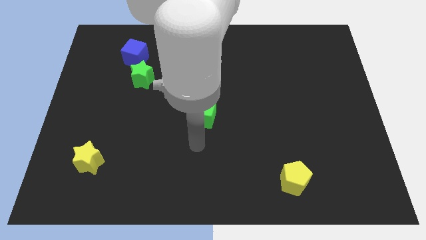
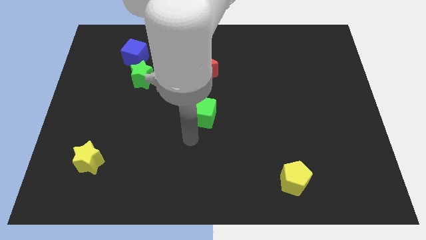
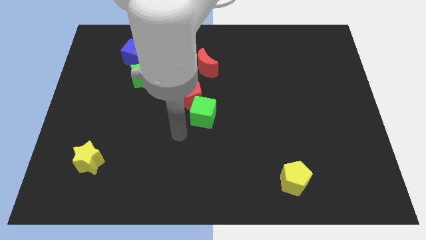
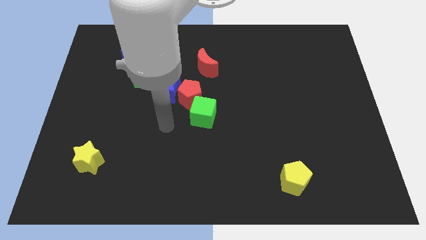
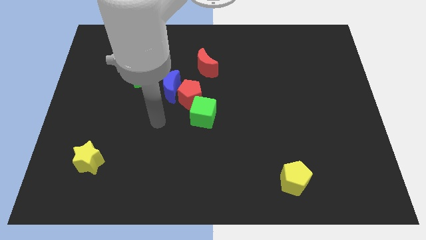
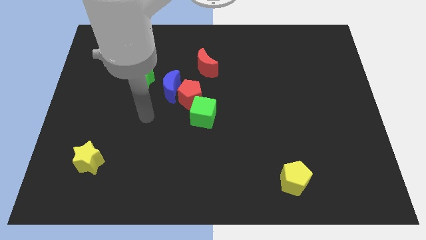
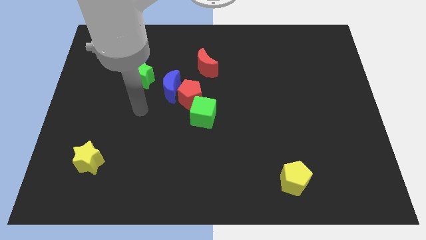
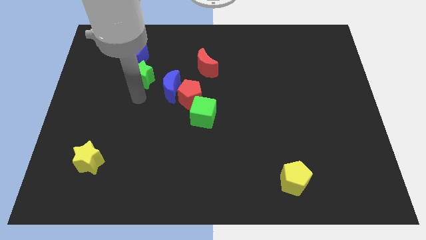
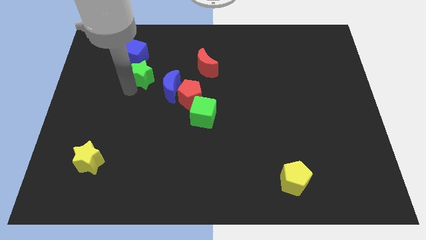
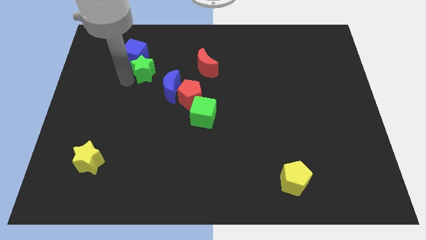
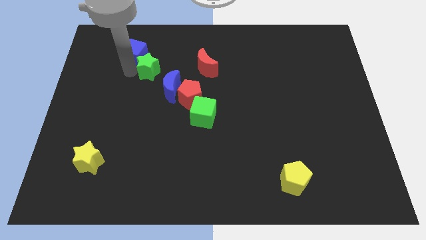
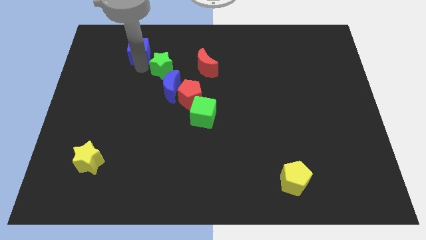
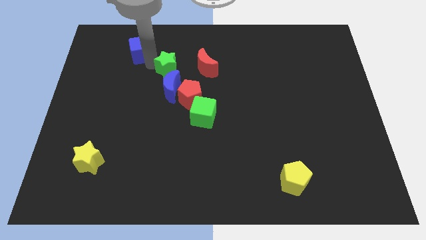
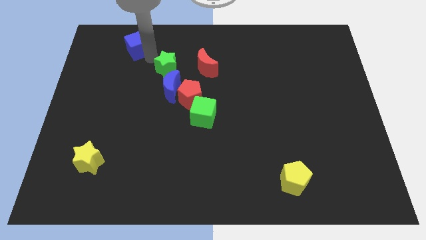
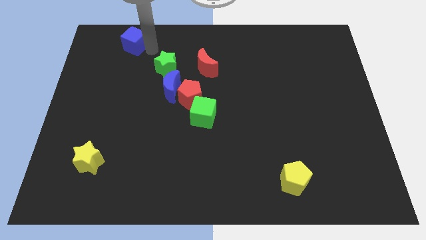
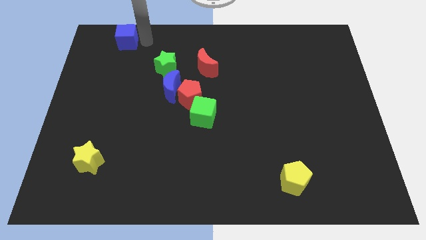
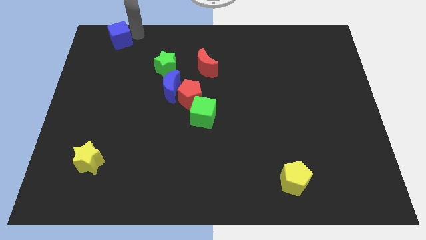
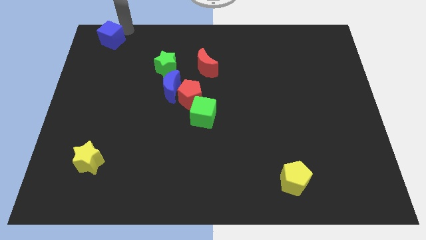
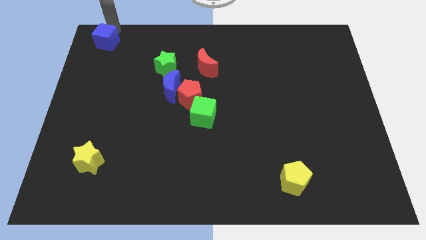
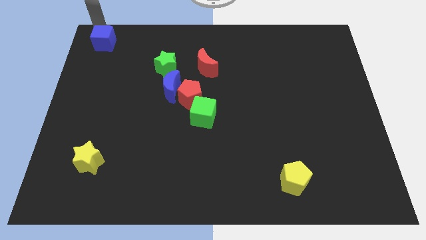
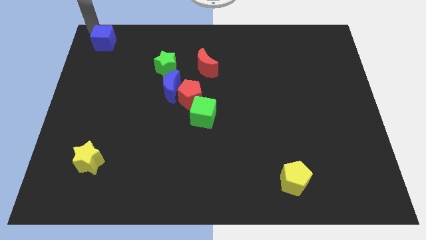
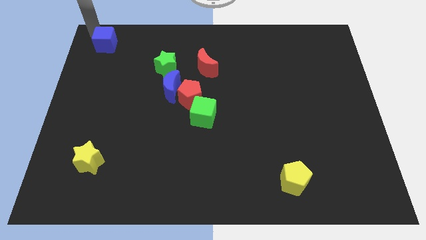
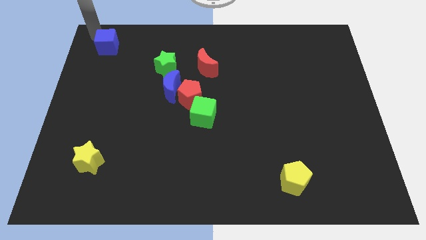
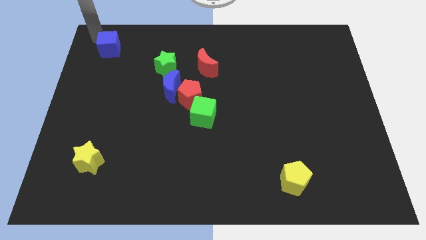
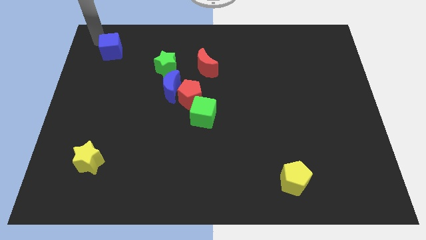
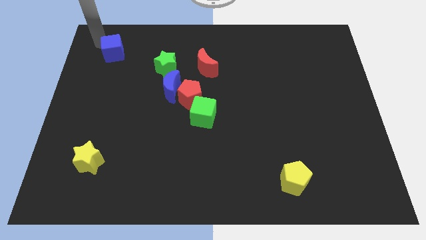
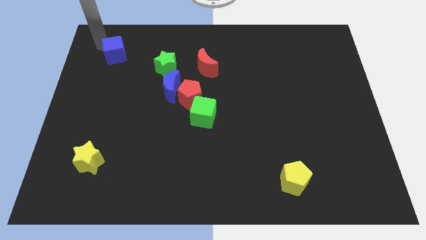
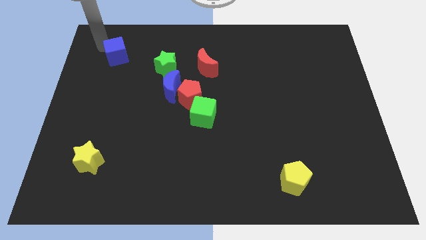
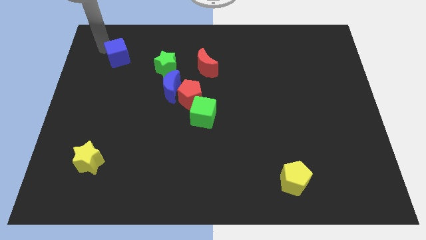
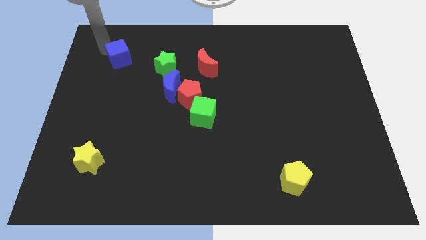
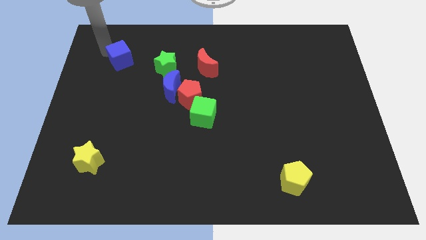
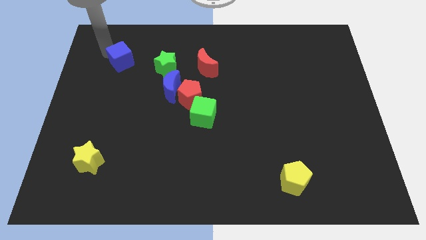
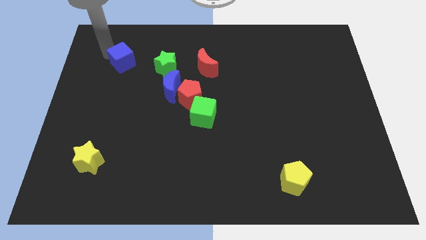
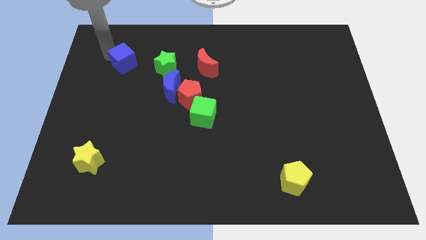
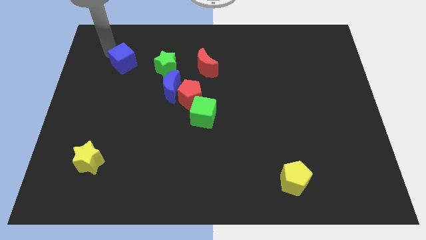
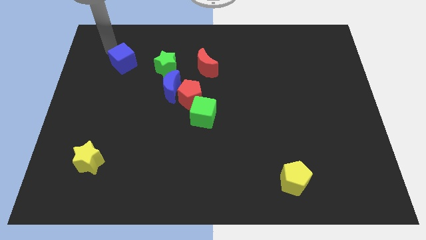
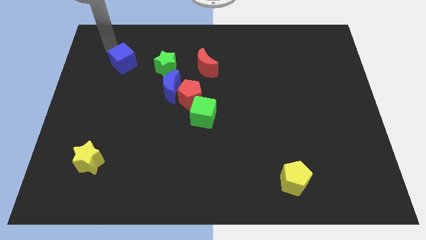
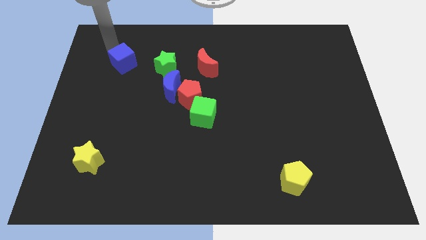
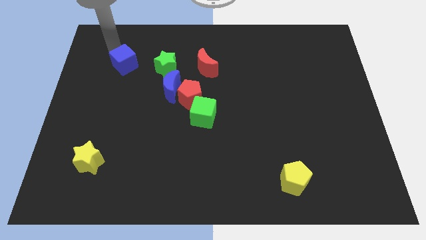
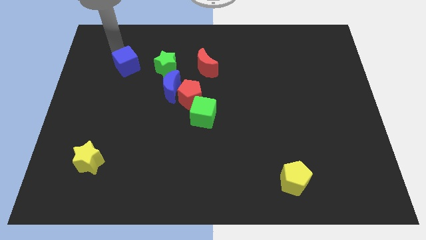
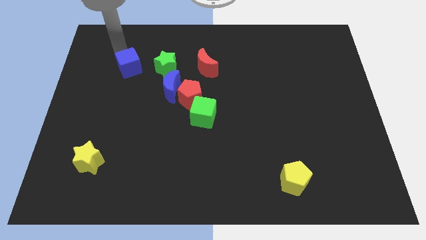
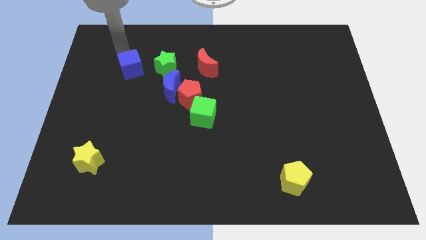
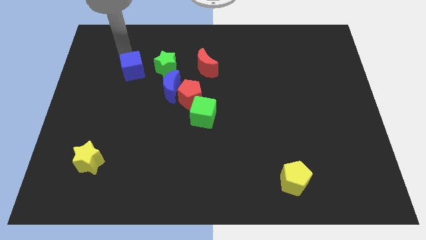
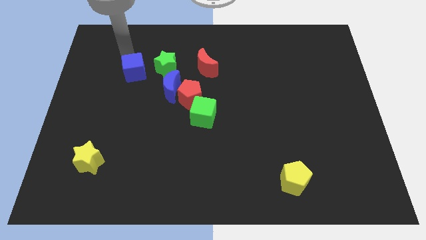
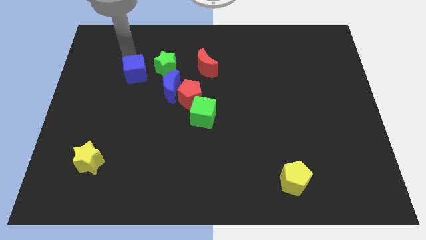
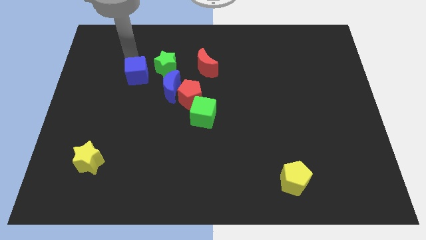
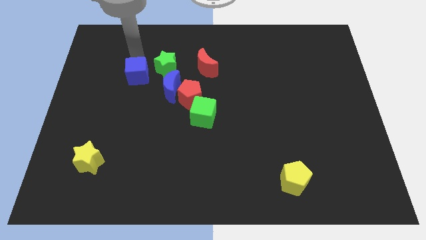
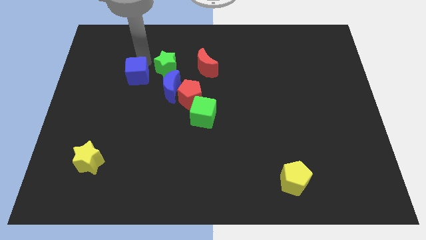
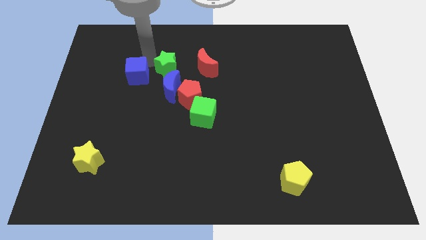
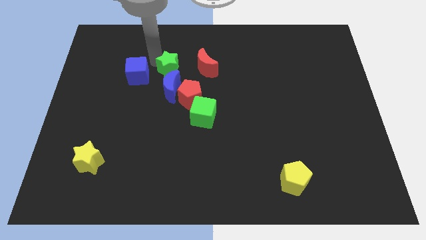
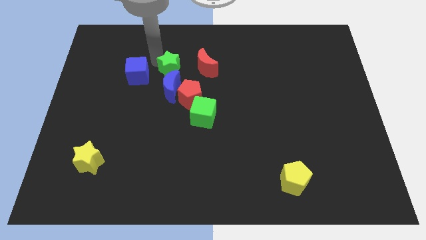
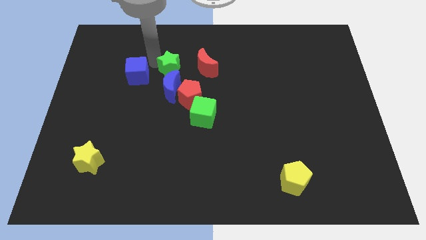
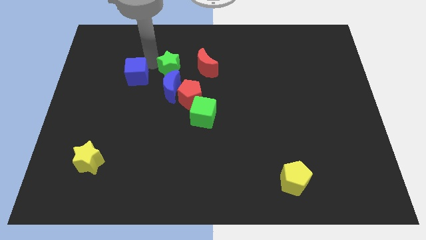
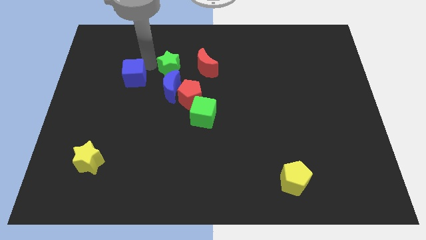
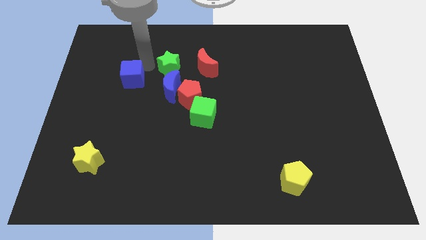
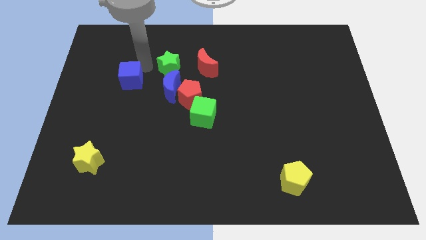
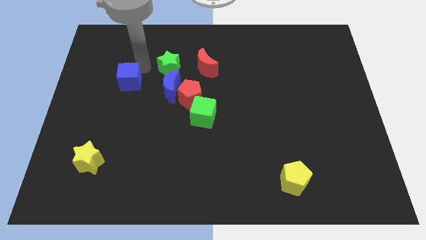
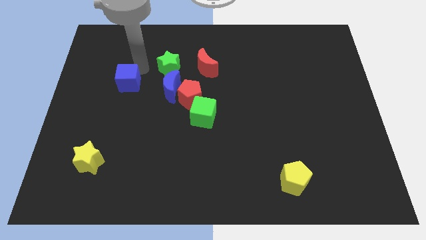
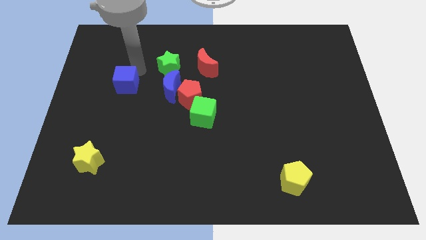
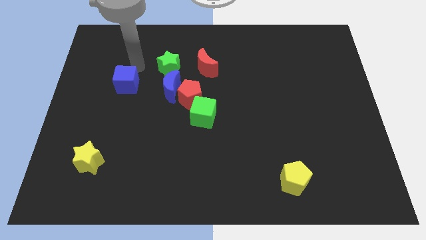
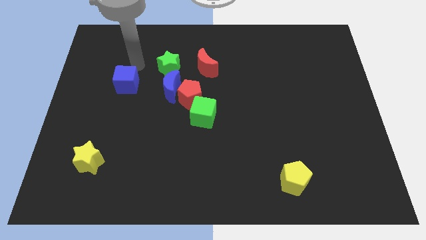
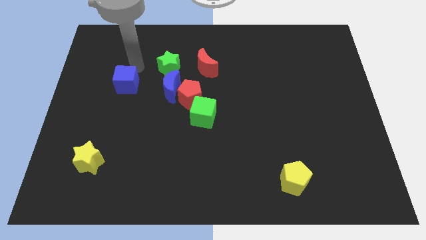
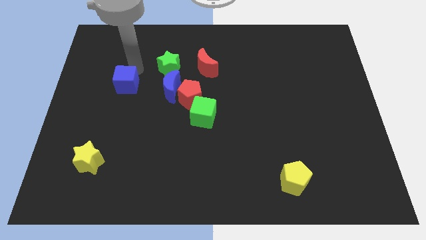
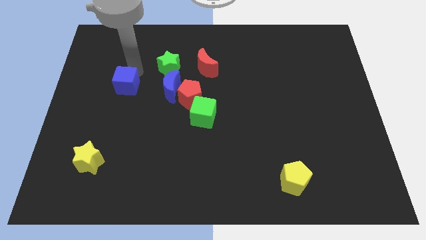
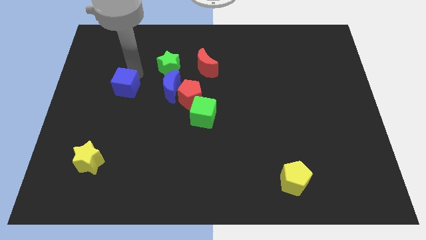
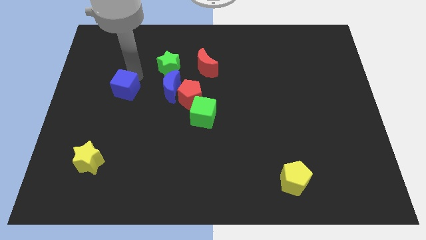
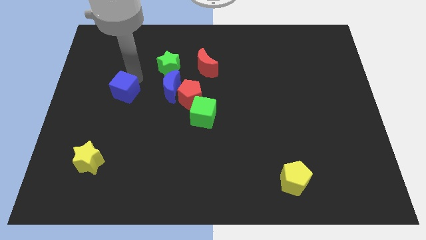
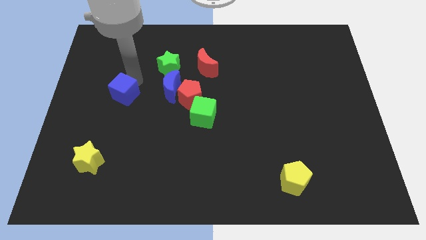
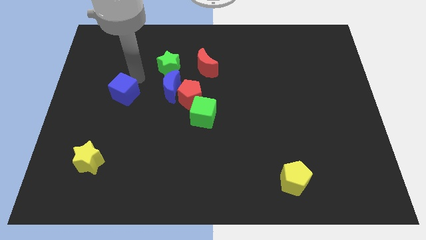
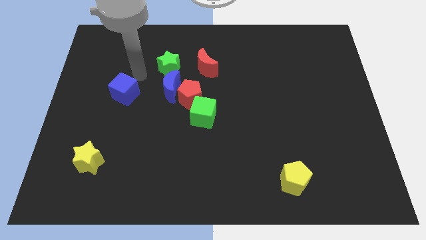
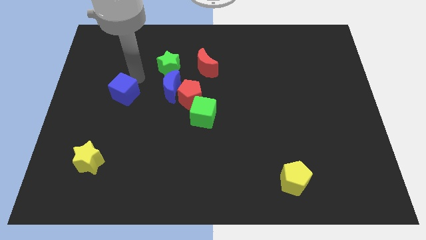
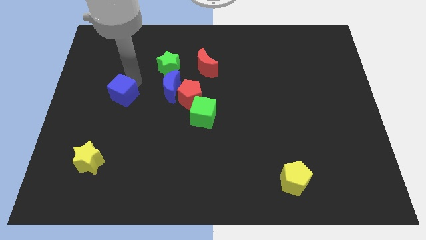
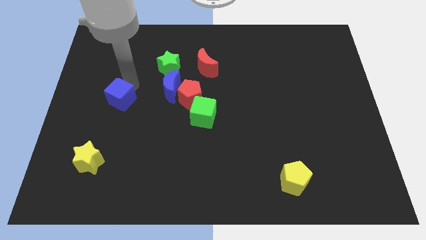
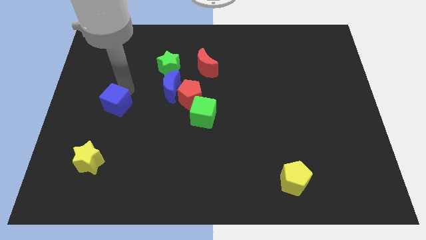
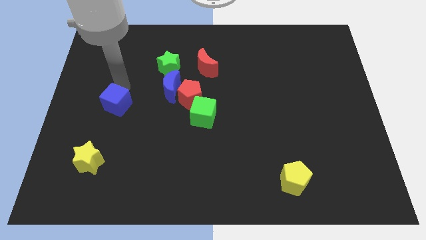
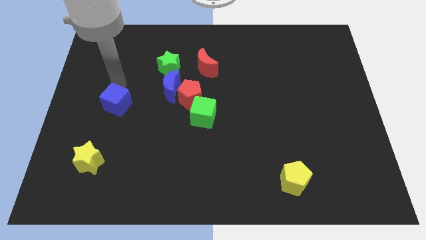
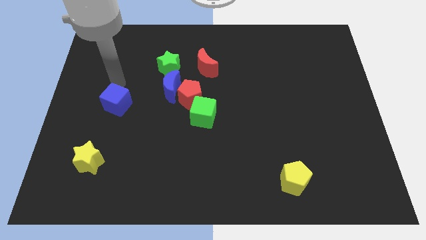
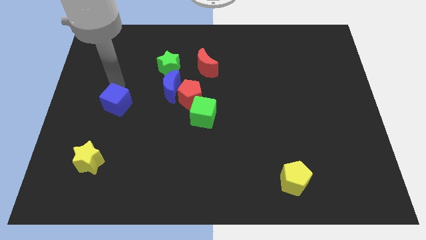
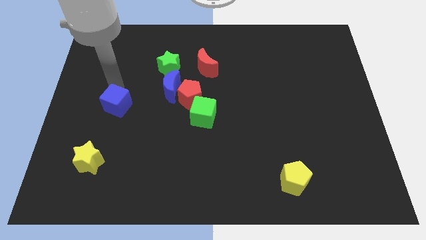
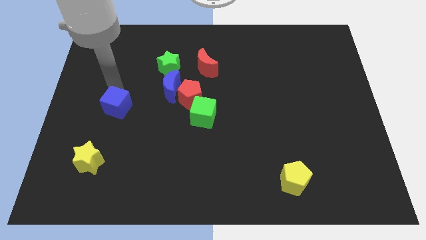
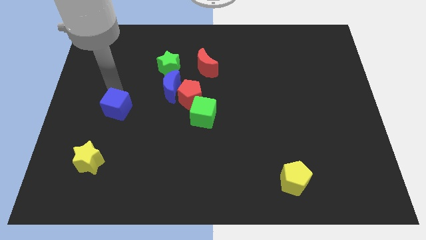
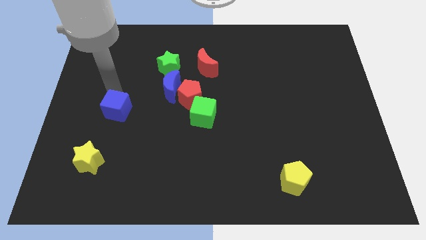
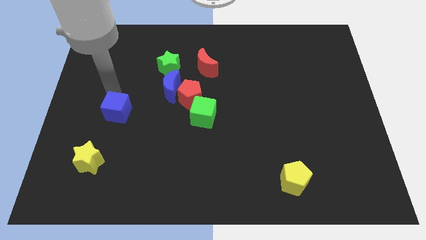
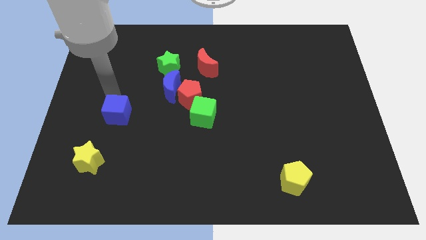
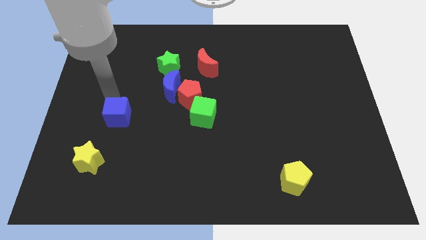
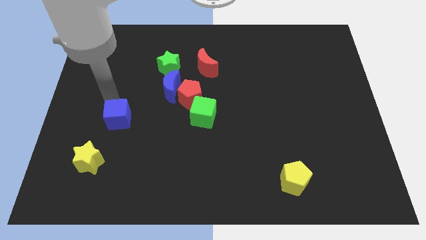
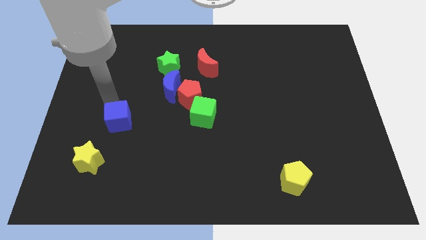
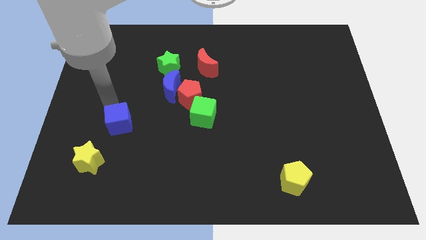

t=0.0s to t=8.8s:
slide the blue cube diagonally up and to the right of the yellow star
